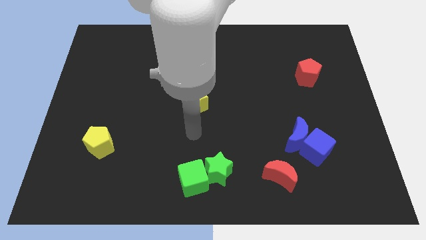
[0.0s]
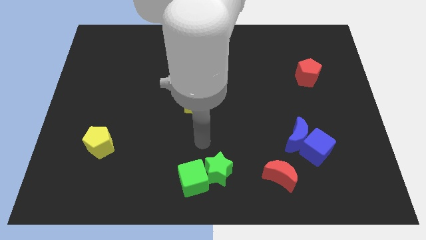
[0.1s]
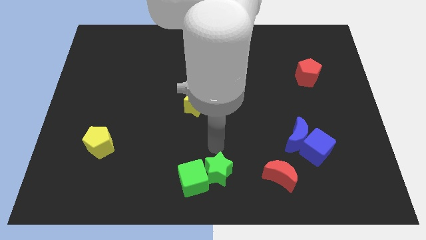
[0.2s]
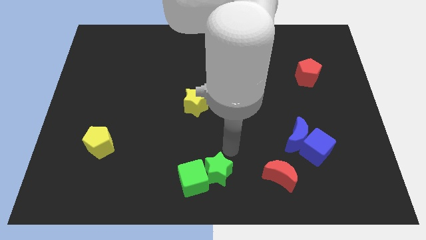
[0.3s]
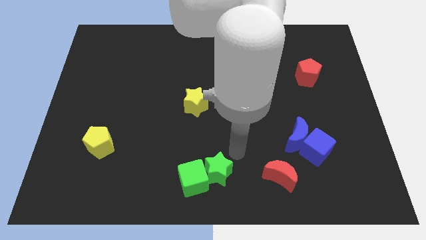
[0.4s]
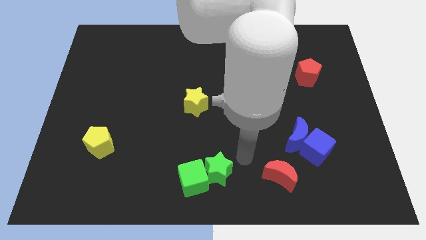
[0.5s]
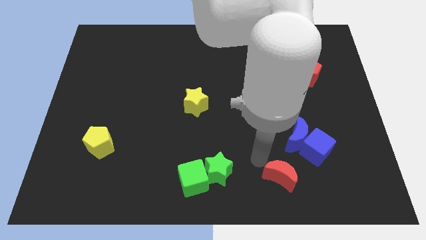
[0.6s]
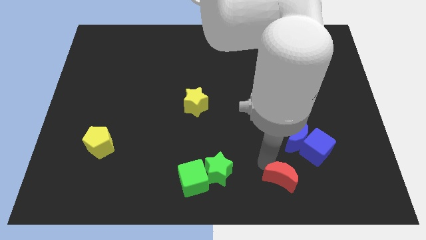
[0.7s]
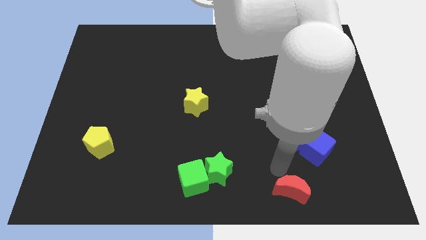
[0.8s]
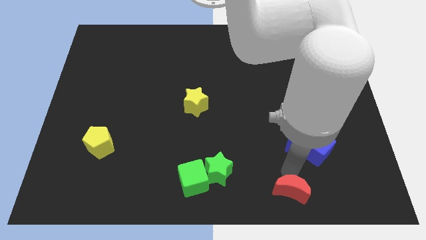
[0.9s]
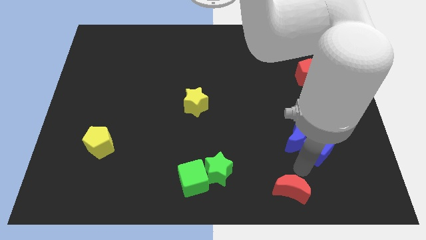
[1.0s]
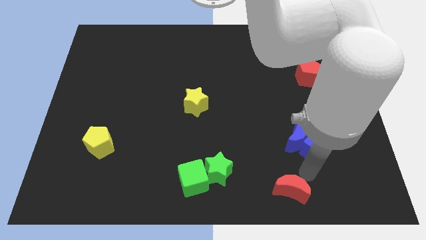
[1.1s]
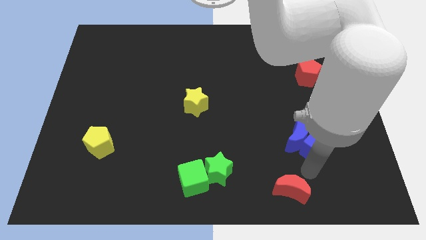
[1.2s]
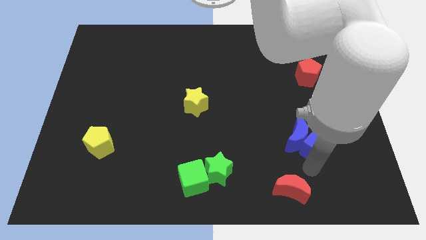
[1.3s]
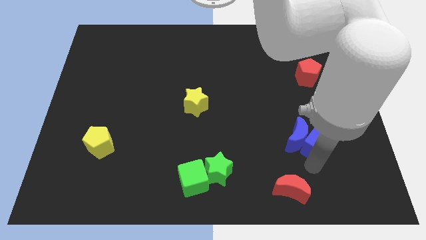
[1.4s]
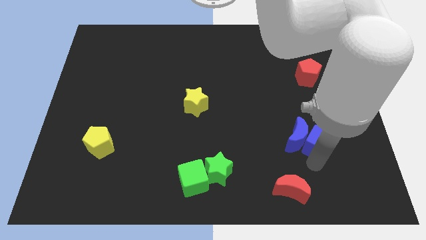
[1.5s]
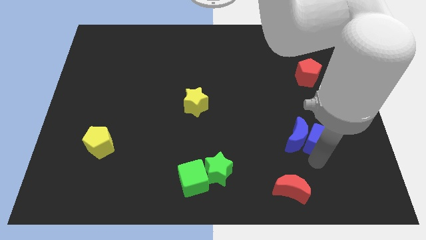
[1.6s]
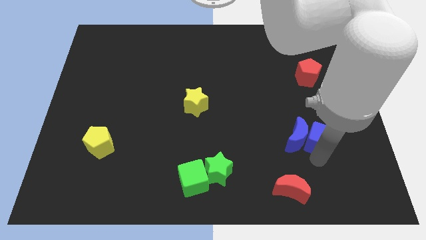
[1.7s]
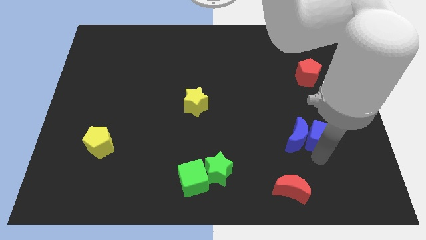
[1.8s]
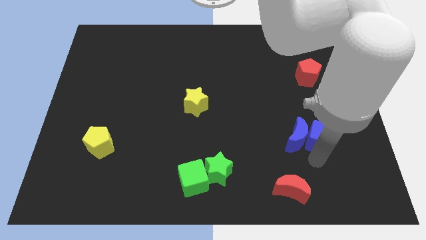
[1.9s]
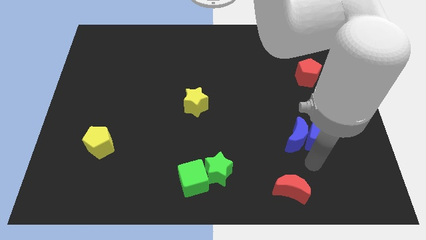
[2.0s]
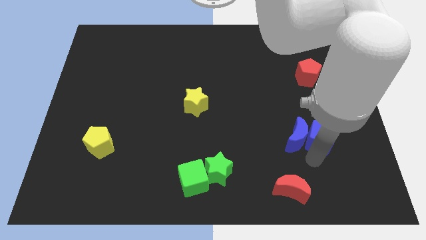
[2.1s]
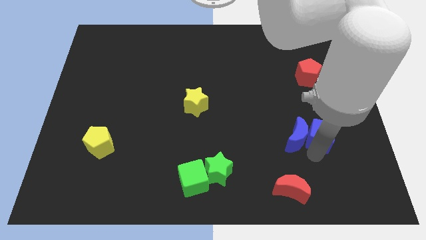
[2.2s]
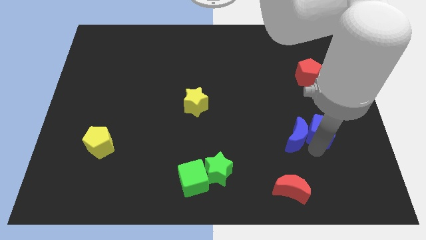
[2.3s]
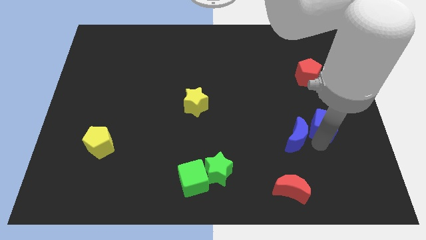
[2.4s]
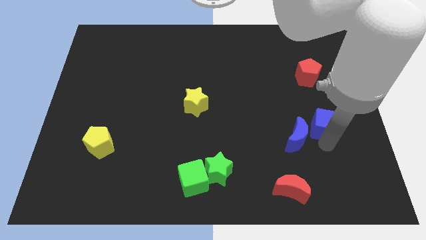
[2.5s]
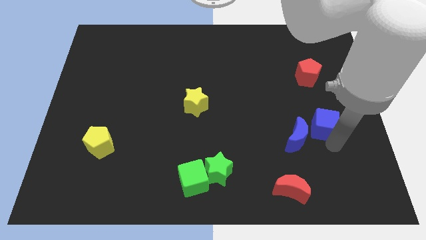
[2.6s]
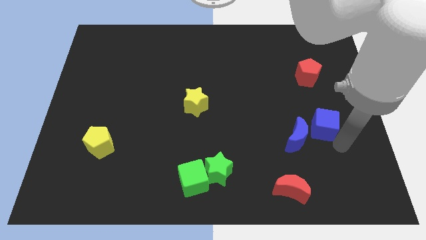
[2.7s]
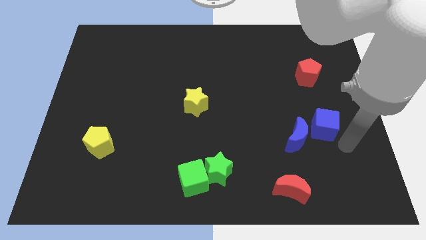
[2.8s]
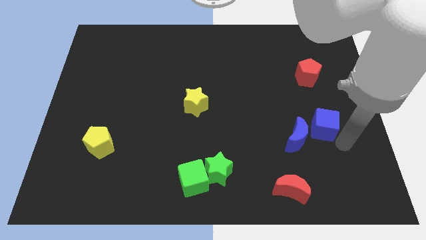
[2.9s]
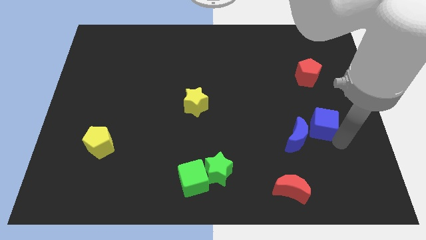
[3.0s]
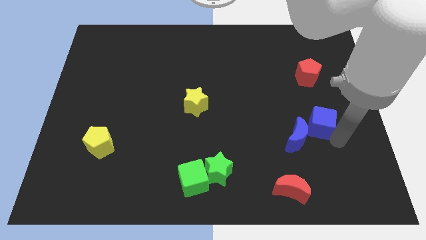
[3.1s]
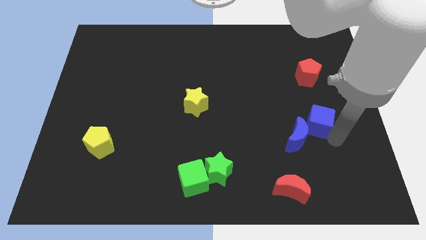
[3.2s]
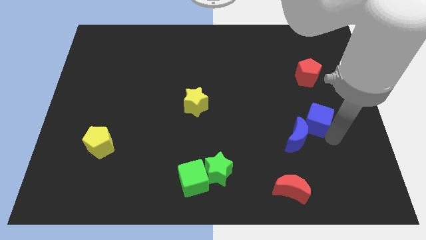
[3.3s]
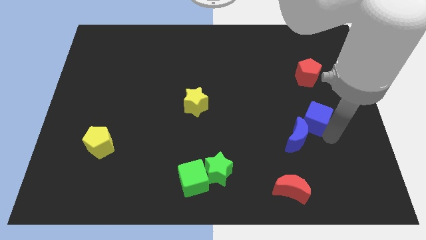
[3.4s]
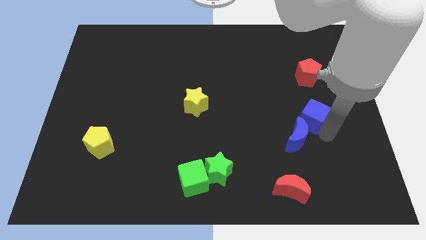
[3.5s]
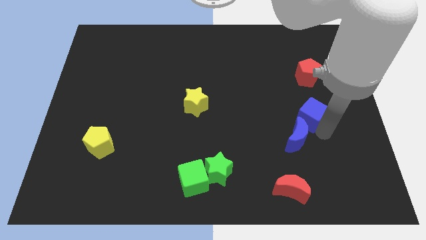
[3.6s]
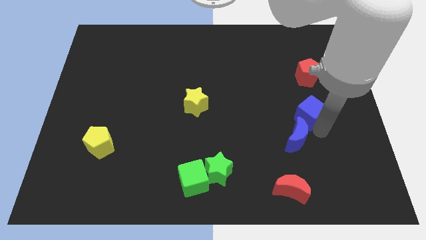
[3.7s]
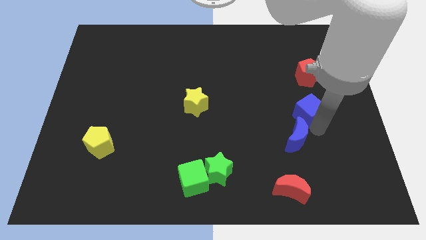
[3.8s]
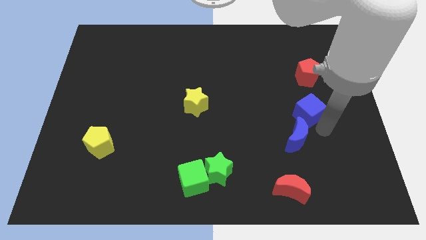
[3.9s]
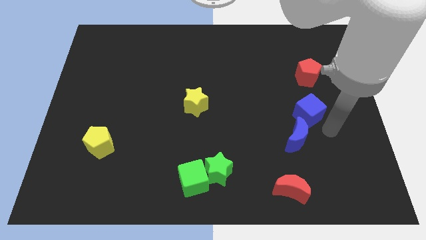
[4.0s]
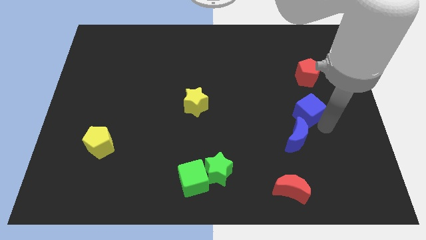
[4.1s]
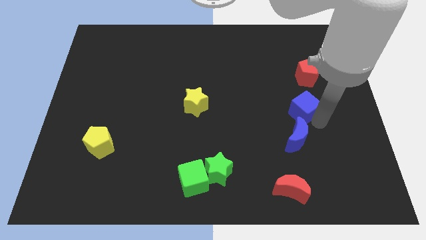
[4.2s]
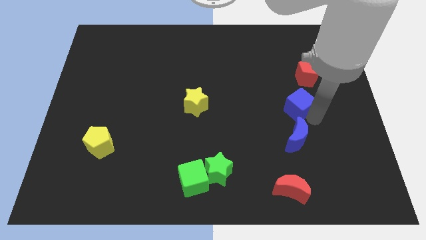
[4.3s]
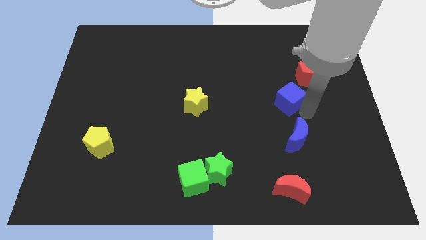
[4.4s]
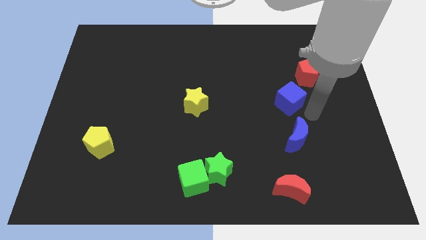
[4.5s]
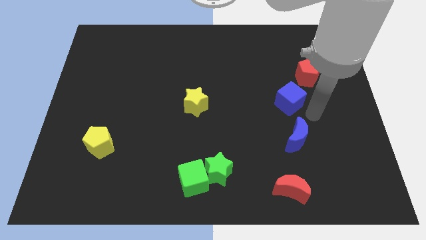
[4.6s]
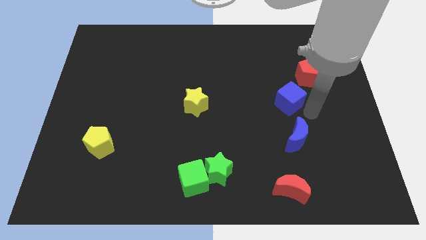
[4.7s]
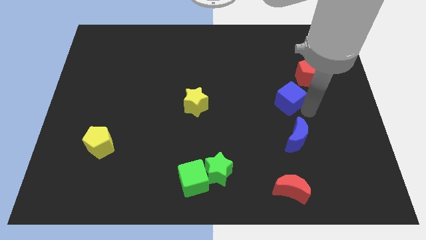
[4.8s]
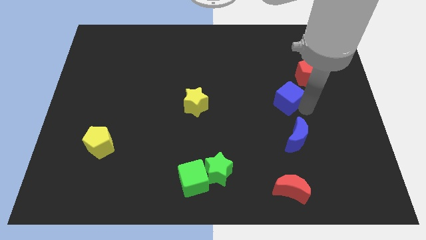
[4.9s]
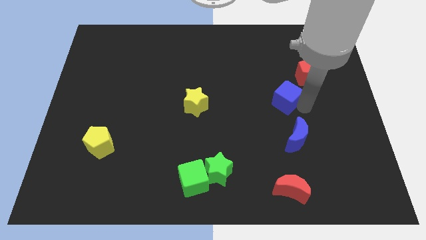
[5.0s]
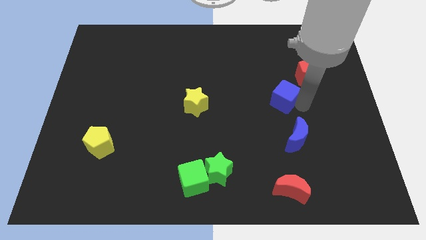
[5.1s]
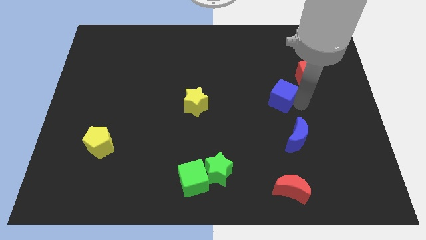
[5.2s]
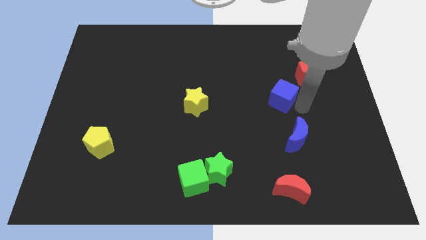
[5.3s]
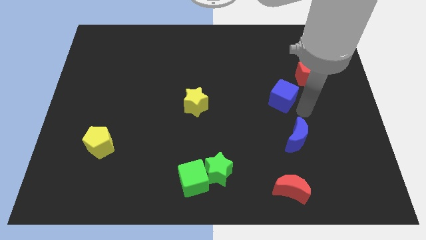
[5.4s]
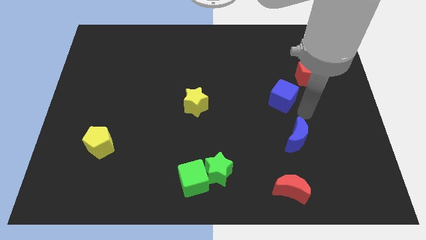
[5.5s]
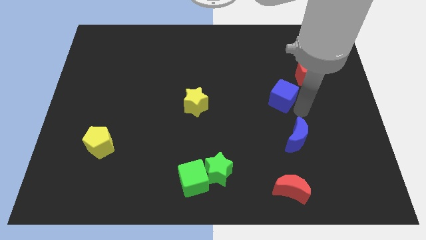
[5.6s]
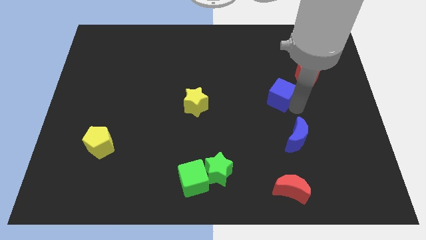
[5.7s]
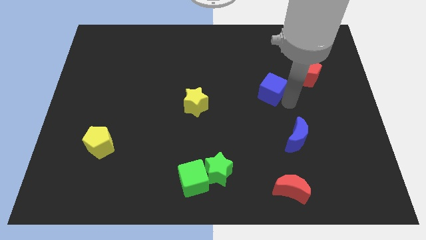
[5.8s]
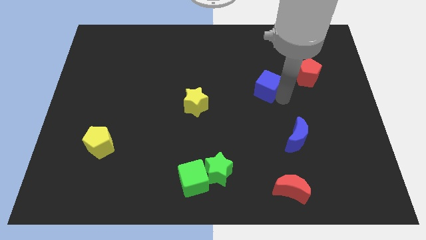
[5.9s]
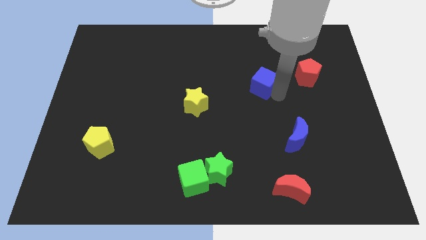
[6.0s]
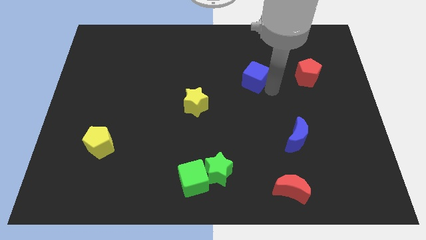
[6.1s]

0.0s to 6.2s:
move the blue cube diagonally upwards and to the left

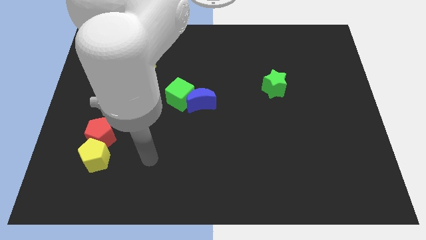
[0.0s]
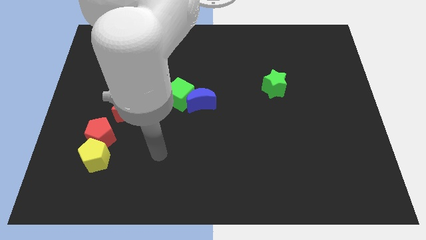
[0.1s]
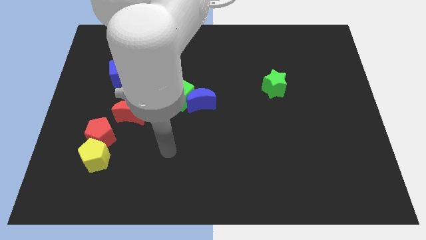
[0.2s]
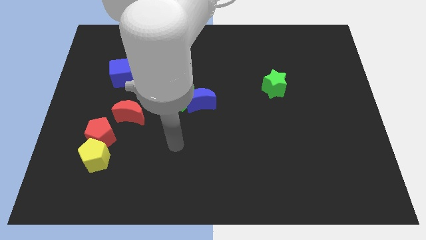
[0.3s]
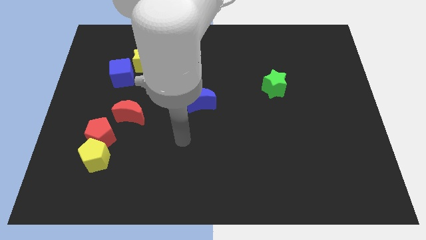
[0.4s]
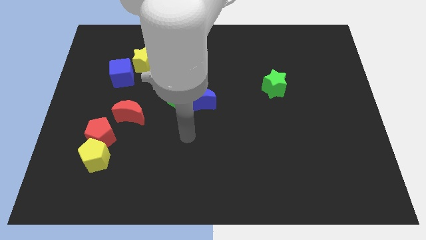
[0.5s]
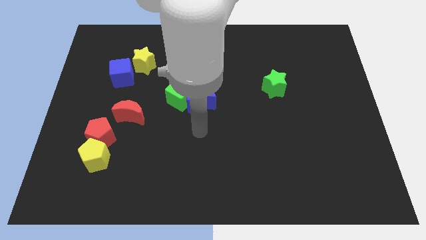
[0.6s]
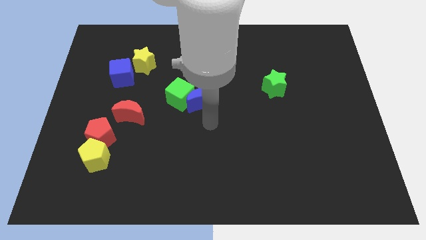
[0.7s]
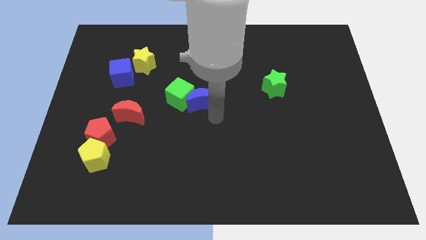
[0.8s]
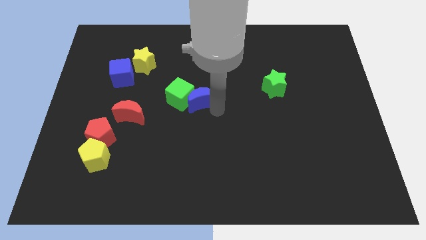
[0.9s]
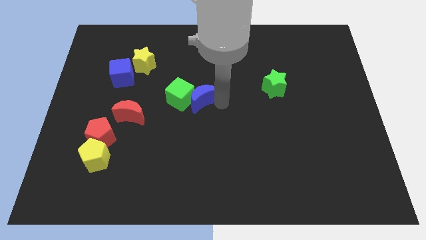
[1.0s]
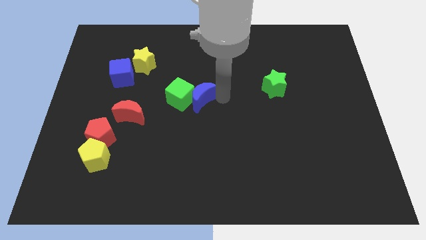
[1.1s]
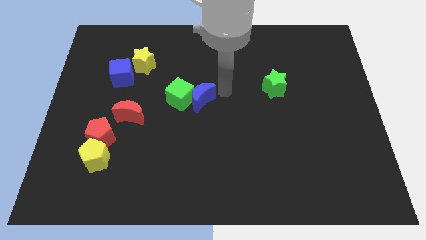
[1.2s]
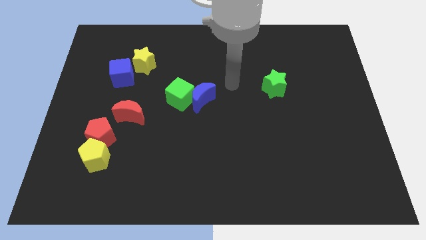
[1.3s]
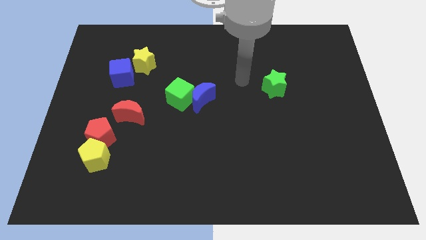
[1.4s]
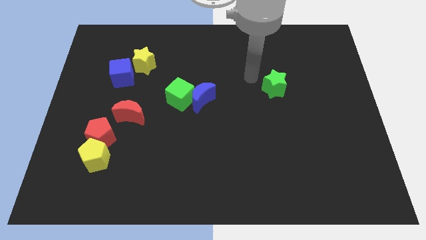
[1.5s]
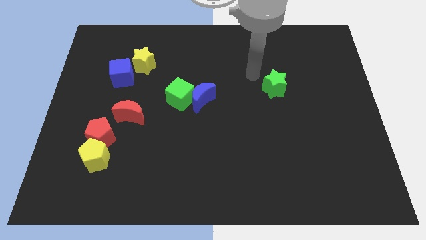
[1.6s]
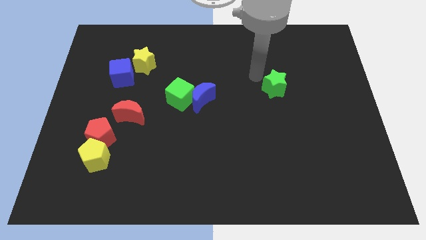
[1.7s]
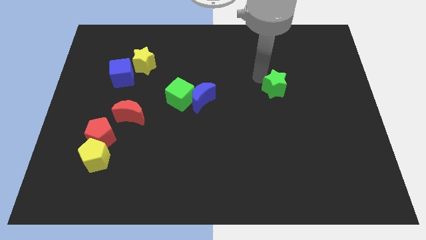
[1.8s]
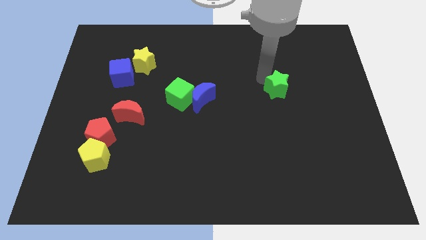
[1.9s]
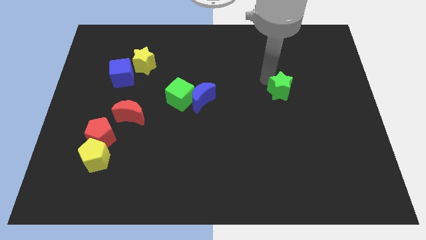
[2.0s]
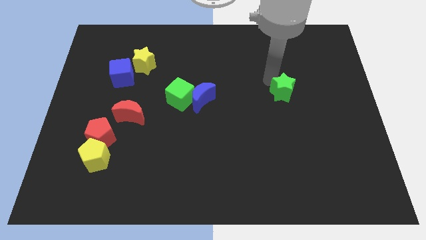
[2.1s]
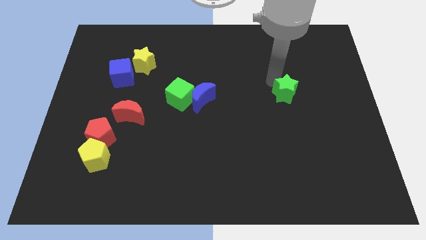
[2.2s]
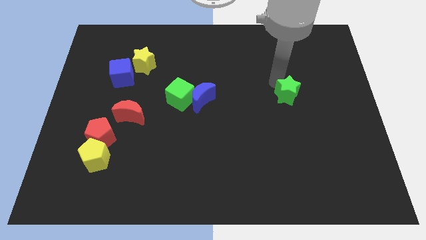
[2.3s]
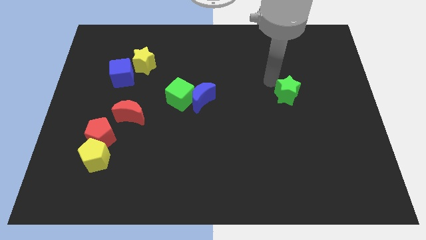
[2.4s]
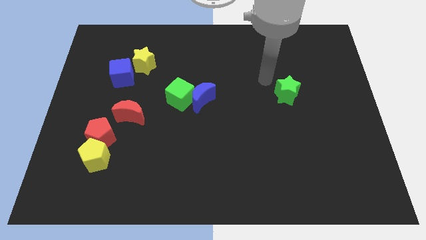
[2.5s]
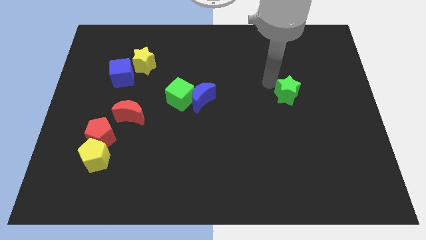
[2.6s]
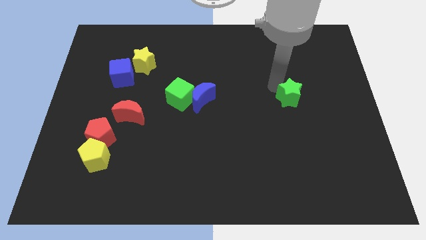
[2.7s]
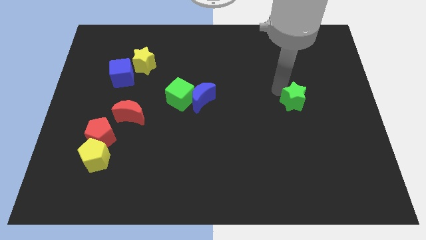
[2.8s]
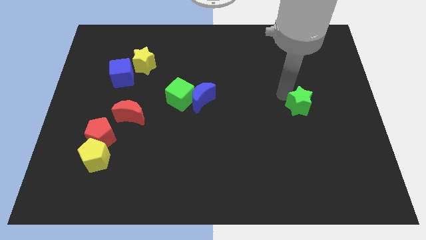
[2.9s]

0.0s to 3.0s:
slightly push the green star downwards and then right
